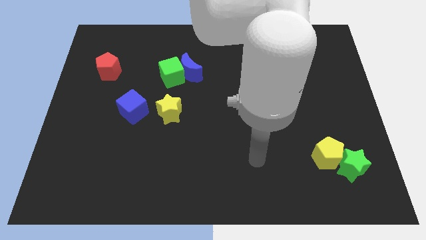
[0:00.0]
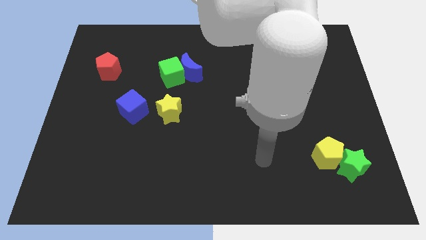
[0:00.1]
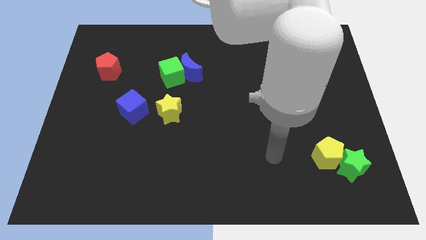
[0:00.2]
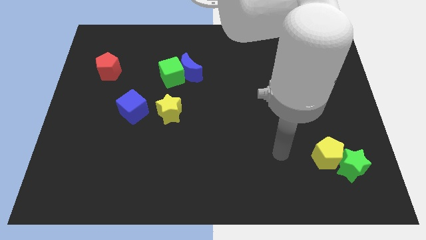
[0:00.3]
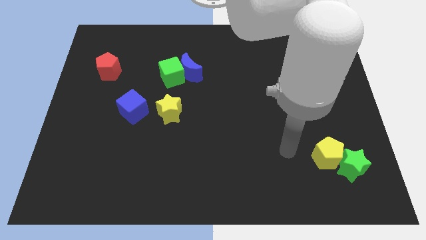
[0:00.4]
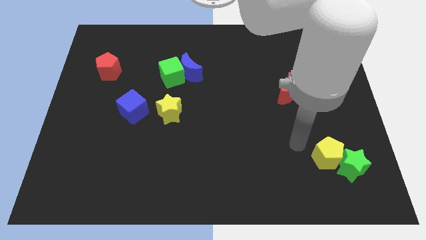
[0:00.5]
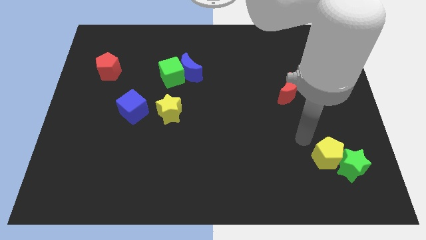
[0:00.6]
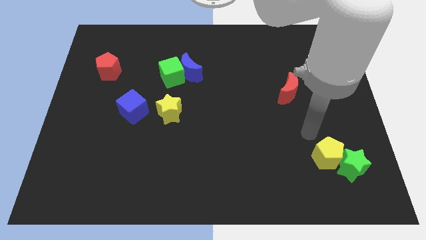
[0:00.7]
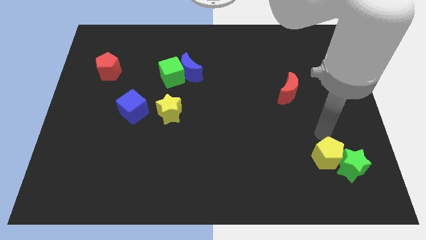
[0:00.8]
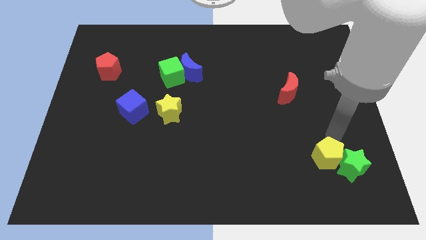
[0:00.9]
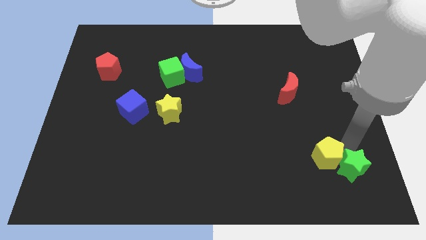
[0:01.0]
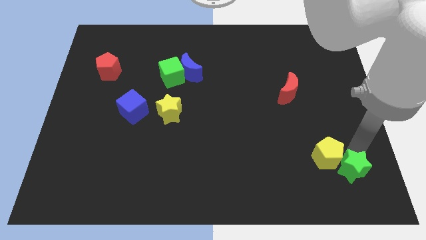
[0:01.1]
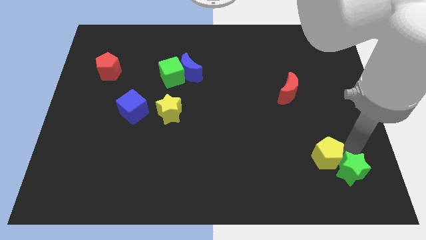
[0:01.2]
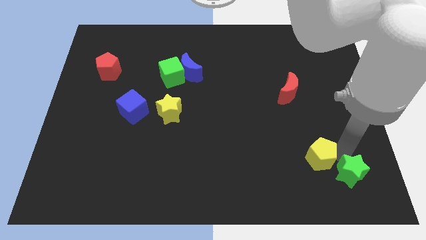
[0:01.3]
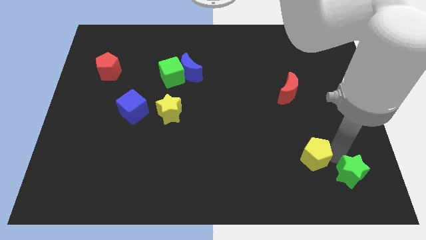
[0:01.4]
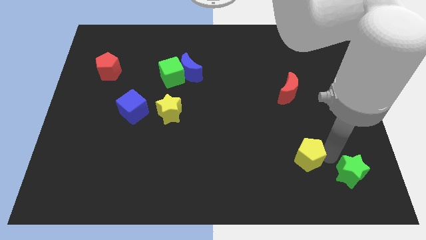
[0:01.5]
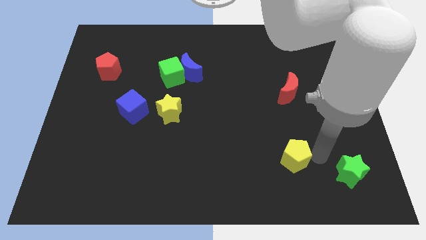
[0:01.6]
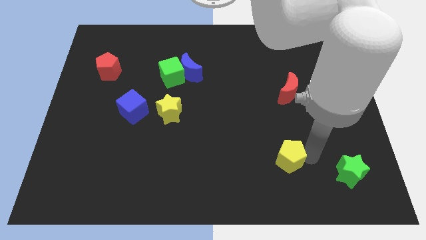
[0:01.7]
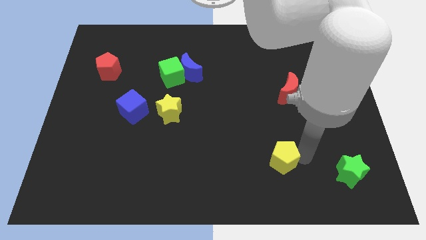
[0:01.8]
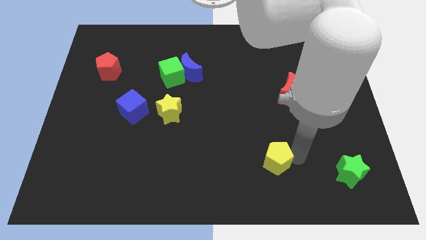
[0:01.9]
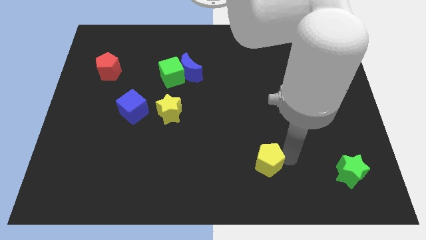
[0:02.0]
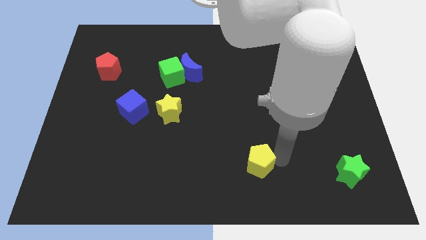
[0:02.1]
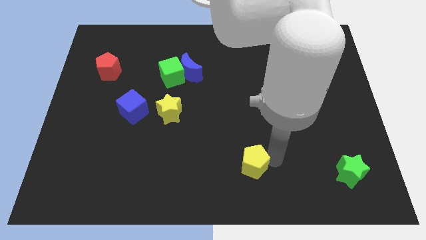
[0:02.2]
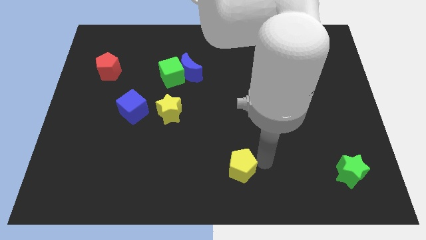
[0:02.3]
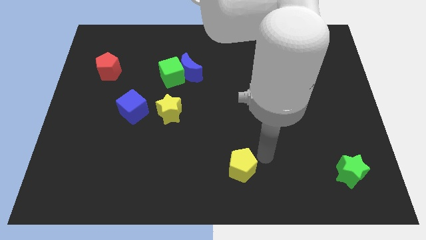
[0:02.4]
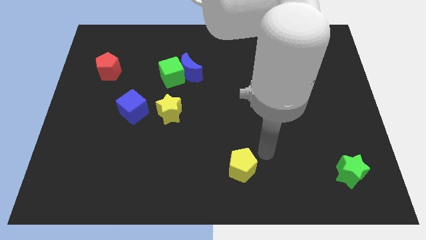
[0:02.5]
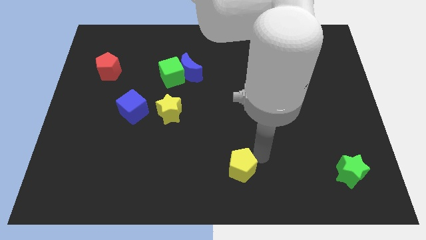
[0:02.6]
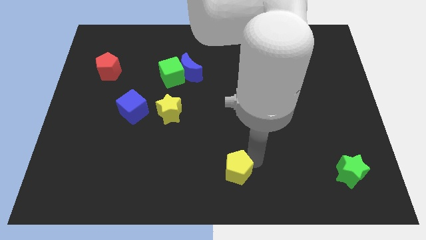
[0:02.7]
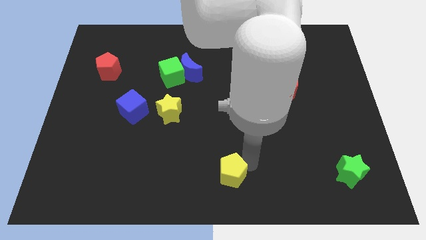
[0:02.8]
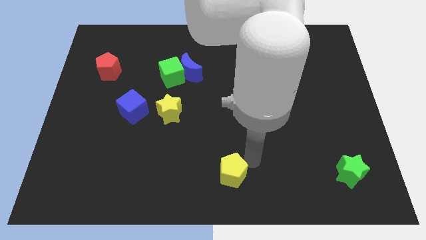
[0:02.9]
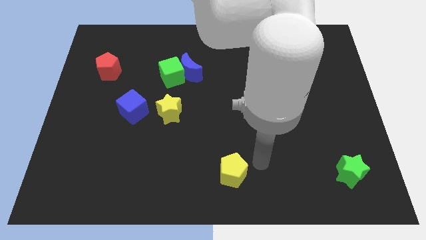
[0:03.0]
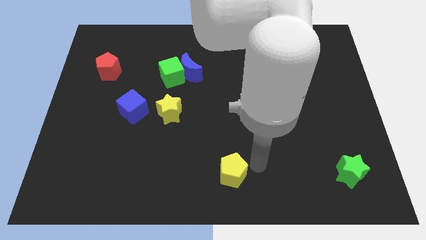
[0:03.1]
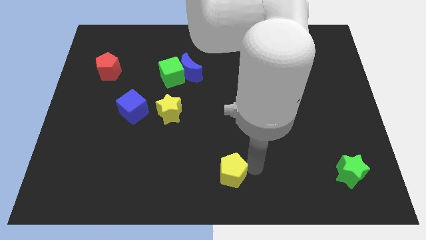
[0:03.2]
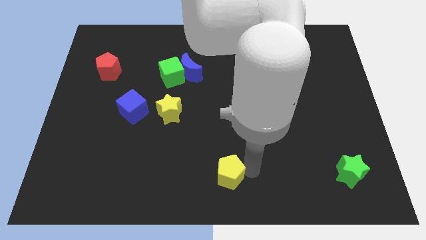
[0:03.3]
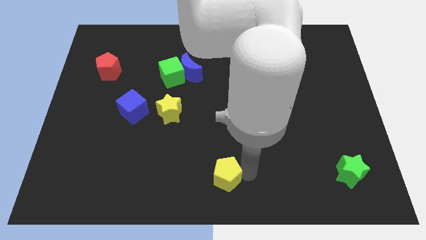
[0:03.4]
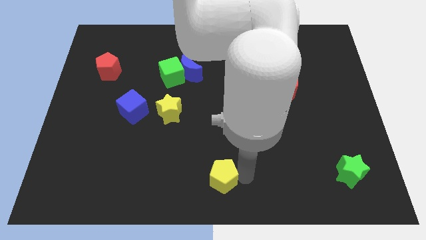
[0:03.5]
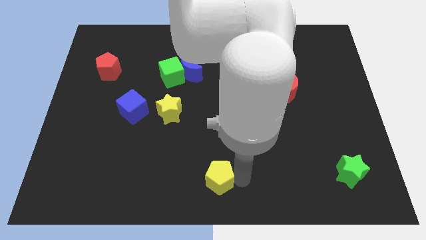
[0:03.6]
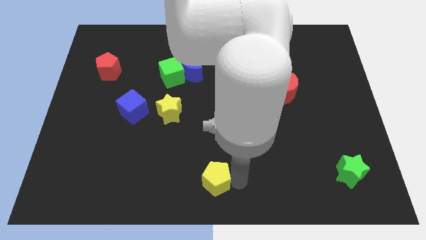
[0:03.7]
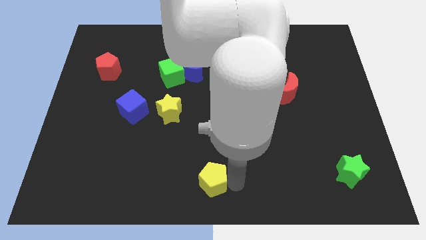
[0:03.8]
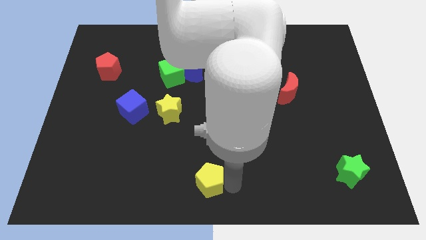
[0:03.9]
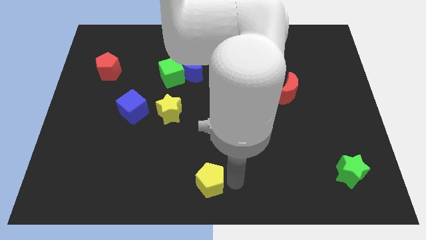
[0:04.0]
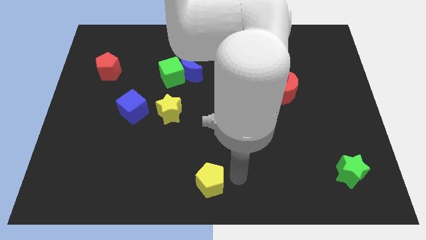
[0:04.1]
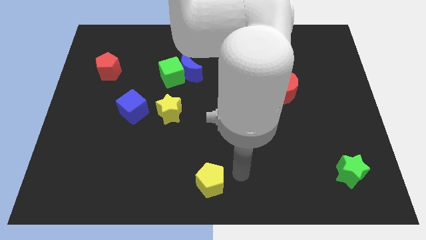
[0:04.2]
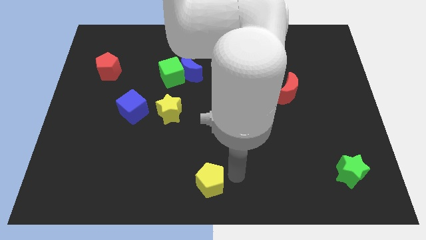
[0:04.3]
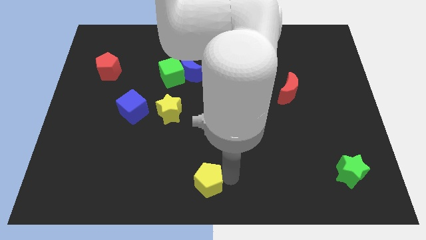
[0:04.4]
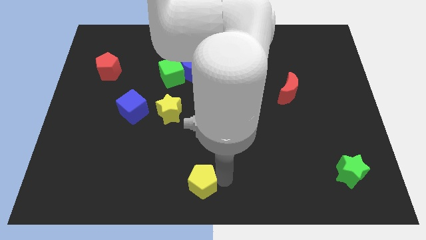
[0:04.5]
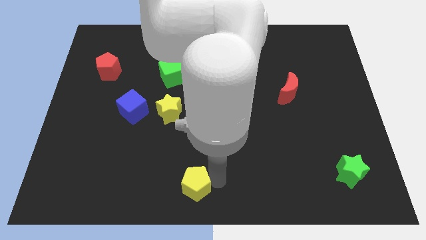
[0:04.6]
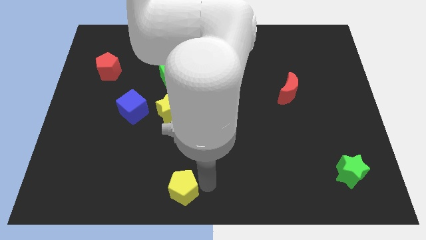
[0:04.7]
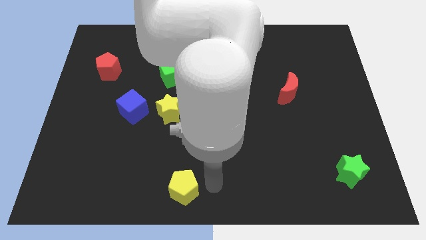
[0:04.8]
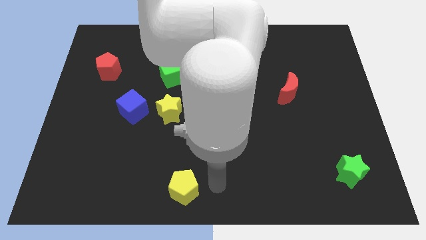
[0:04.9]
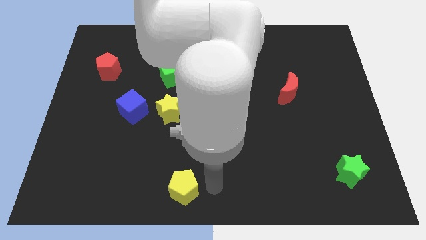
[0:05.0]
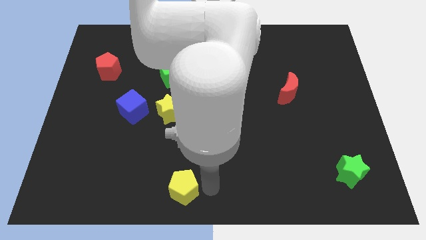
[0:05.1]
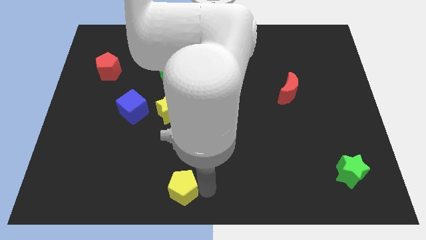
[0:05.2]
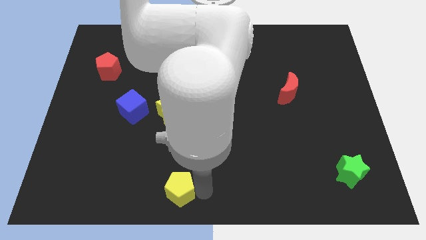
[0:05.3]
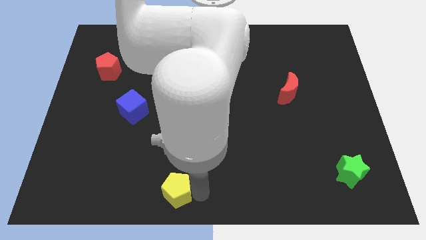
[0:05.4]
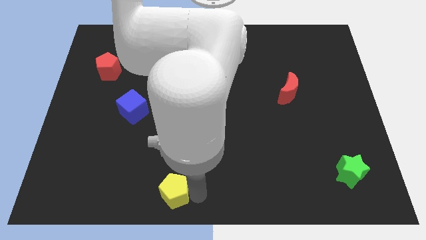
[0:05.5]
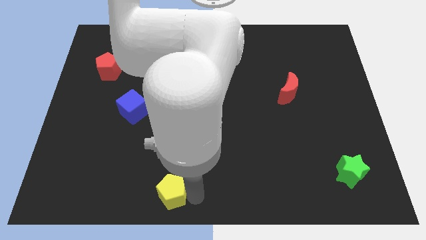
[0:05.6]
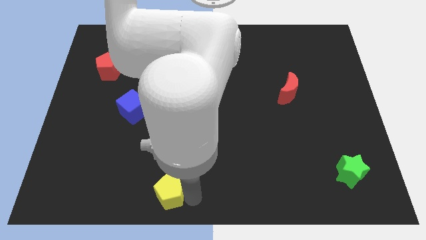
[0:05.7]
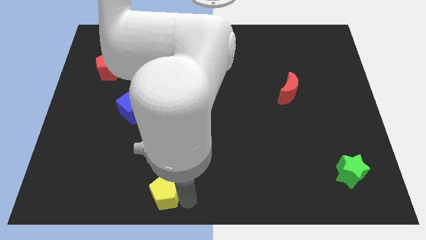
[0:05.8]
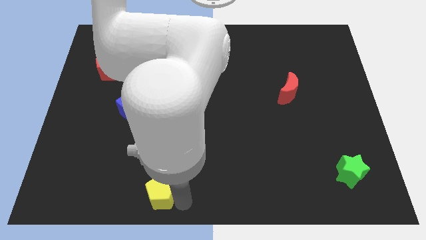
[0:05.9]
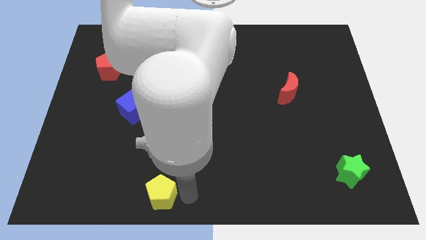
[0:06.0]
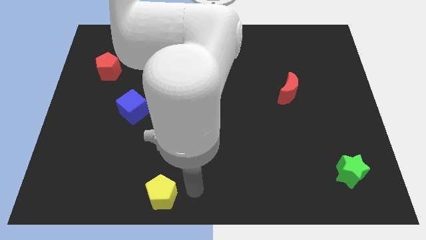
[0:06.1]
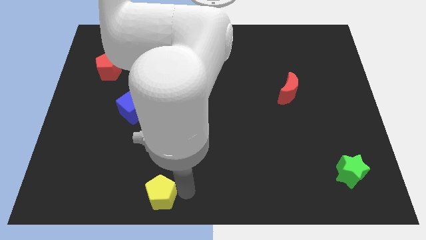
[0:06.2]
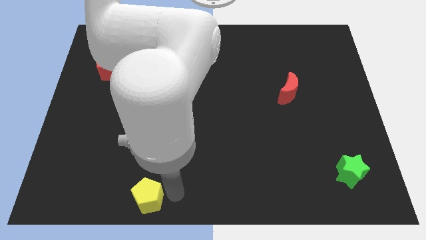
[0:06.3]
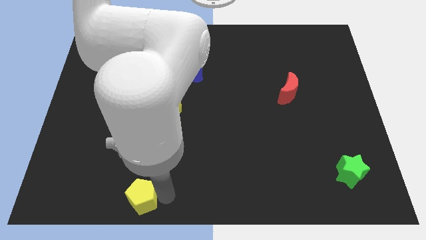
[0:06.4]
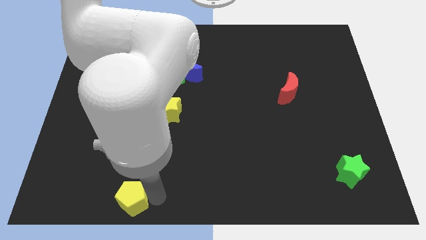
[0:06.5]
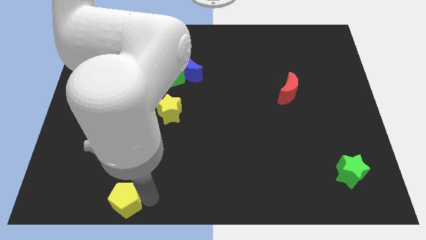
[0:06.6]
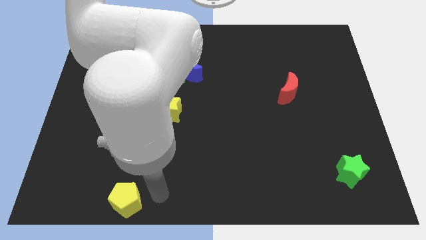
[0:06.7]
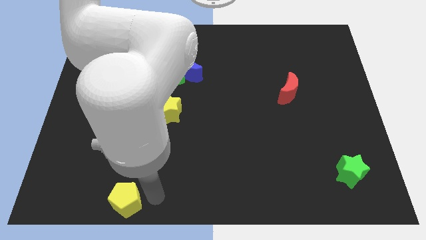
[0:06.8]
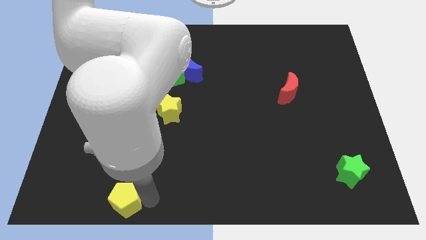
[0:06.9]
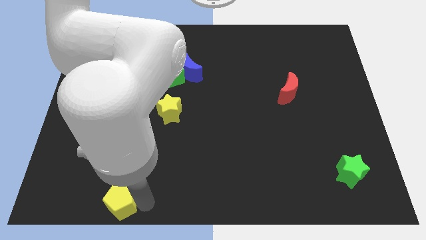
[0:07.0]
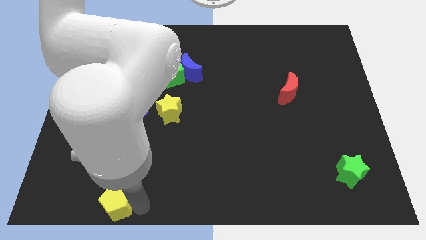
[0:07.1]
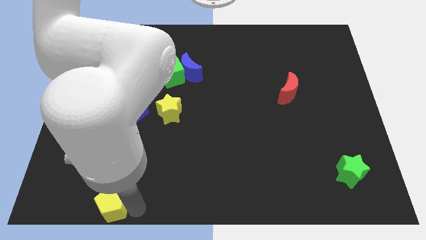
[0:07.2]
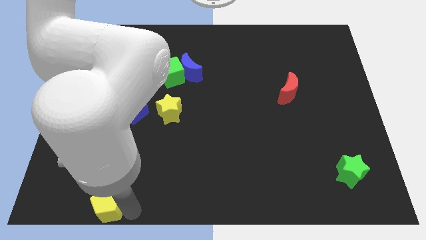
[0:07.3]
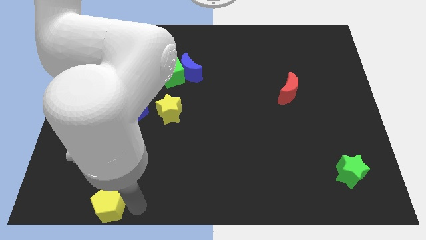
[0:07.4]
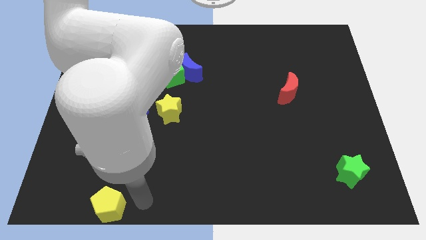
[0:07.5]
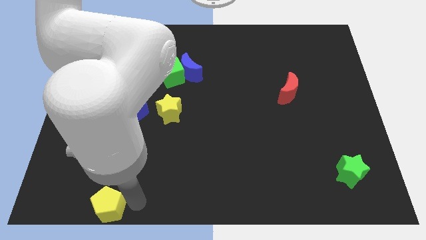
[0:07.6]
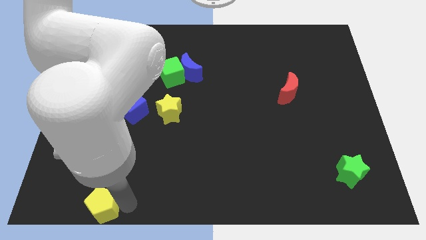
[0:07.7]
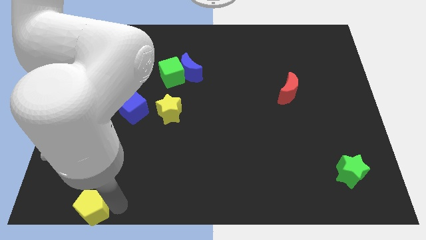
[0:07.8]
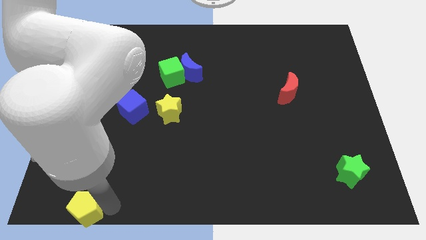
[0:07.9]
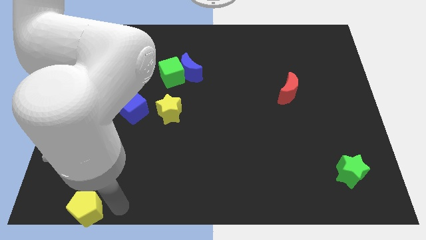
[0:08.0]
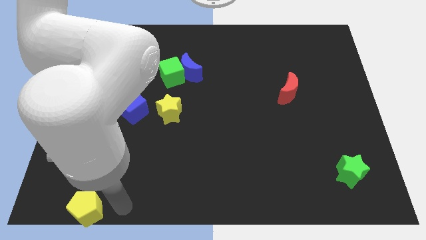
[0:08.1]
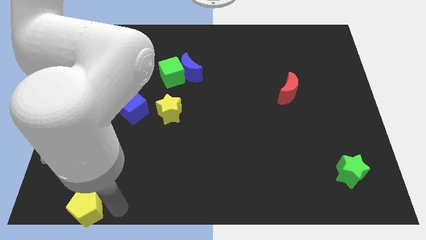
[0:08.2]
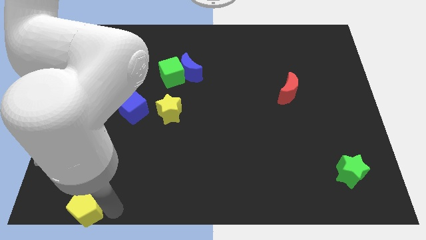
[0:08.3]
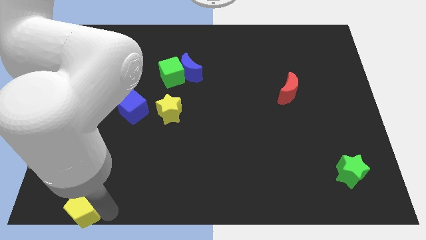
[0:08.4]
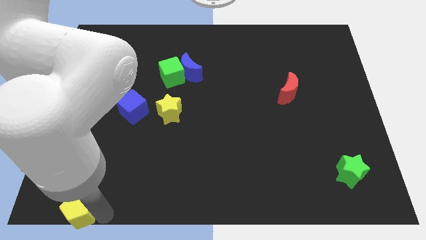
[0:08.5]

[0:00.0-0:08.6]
move the yellow pentagon to the bottom left of the board
